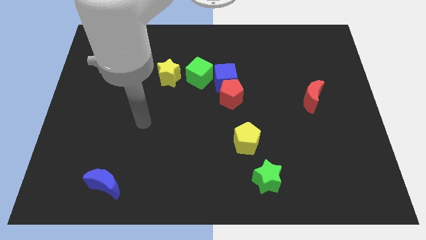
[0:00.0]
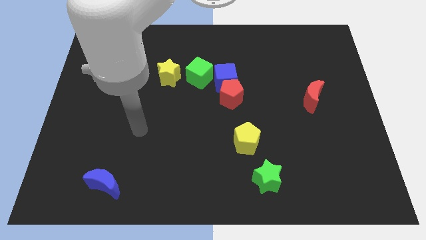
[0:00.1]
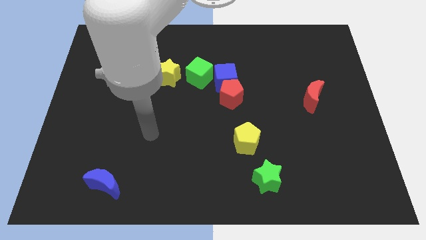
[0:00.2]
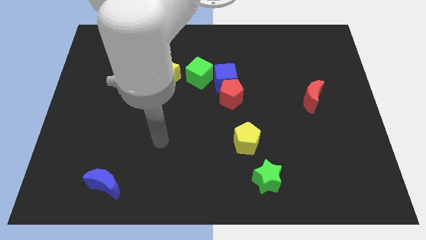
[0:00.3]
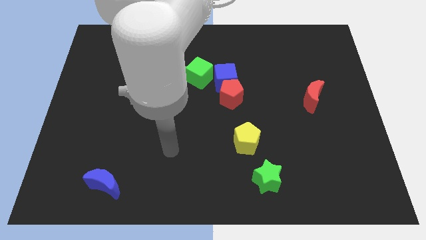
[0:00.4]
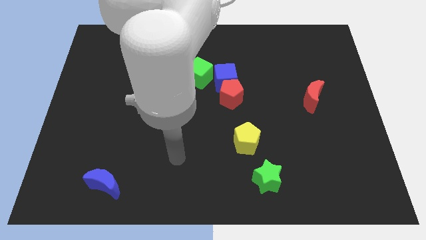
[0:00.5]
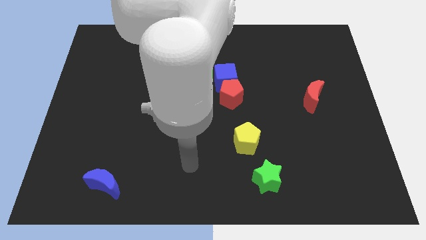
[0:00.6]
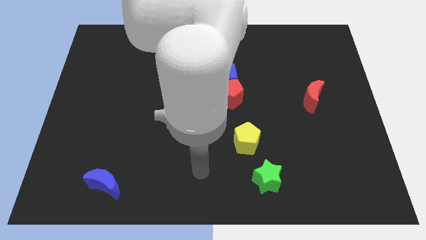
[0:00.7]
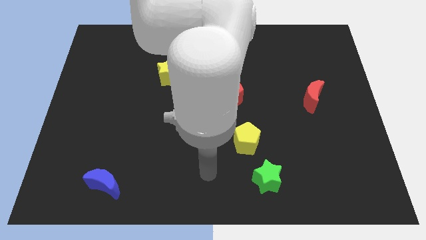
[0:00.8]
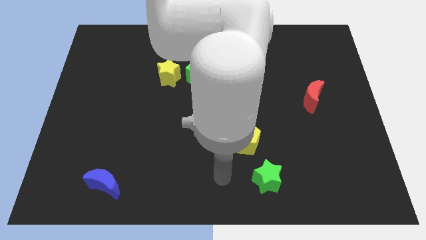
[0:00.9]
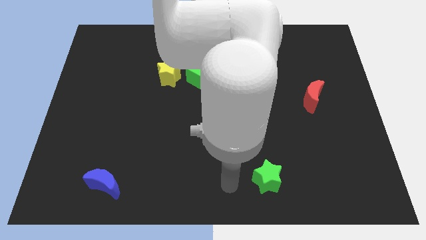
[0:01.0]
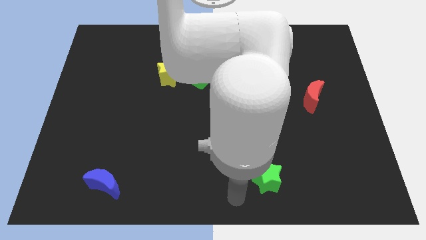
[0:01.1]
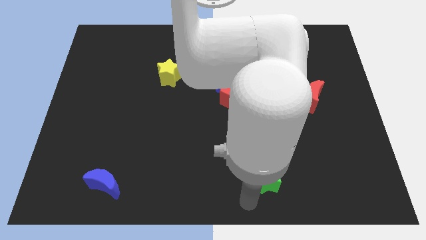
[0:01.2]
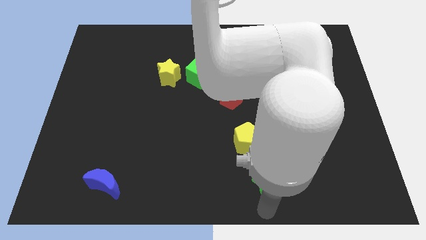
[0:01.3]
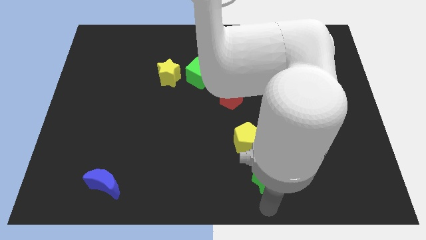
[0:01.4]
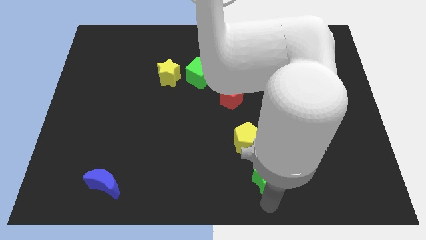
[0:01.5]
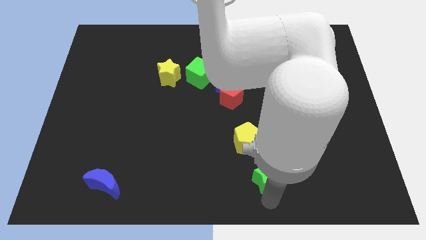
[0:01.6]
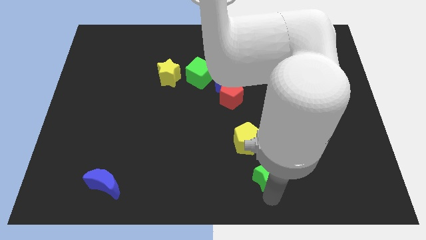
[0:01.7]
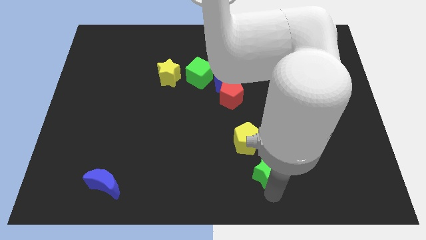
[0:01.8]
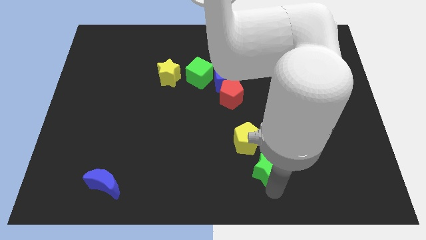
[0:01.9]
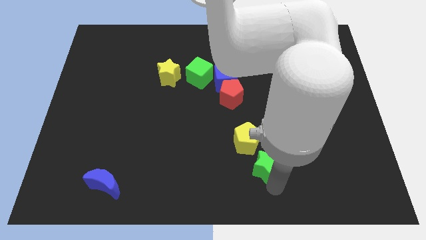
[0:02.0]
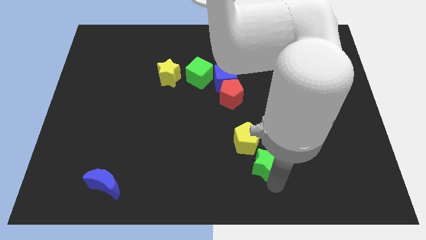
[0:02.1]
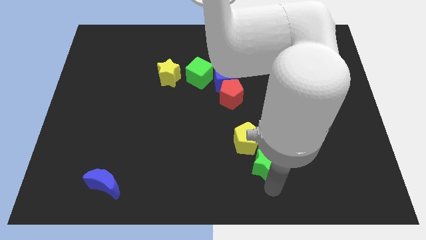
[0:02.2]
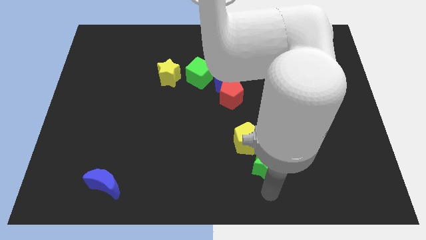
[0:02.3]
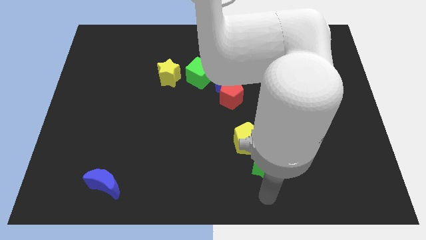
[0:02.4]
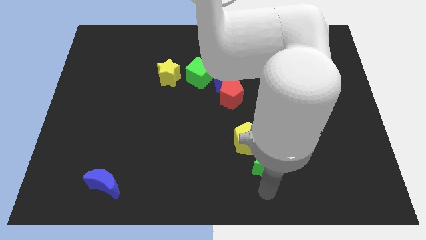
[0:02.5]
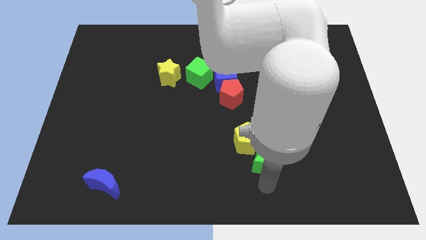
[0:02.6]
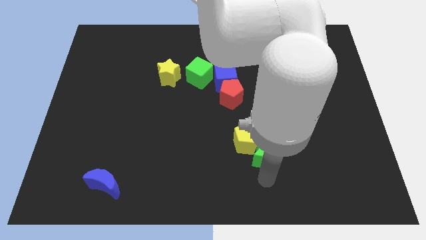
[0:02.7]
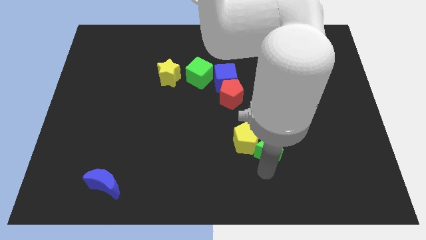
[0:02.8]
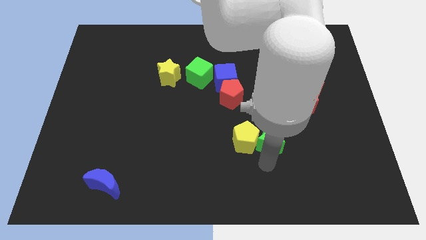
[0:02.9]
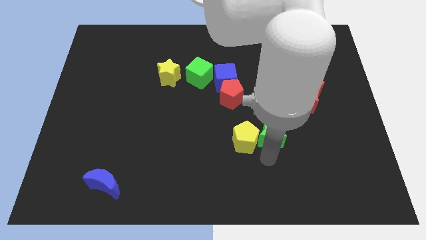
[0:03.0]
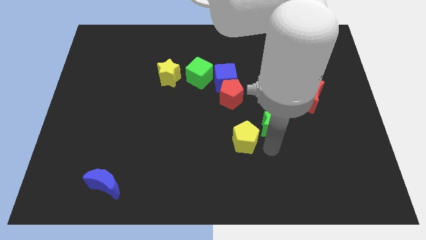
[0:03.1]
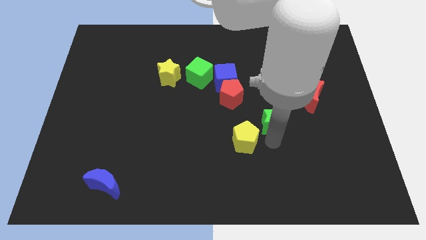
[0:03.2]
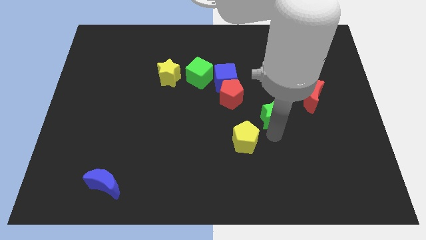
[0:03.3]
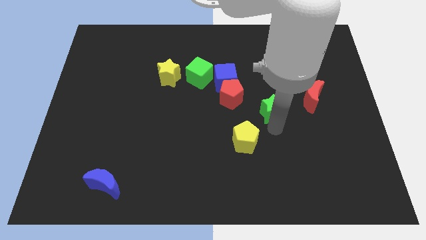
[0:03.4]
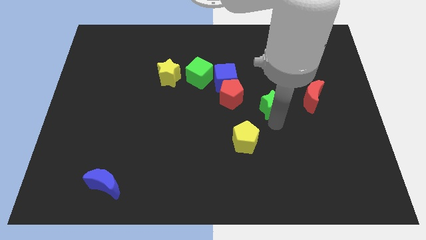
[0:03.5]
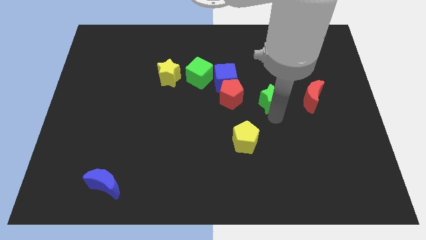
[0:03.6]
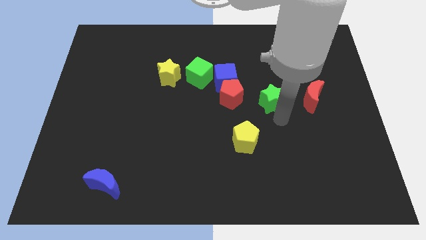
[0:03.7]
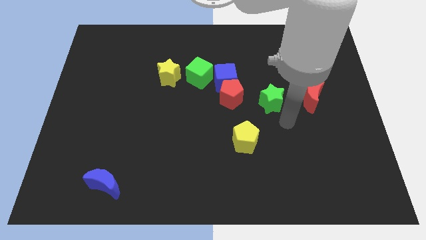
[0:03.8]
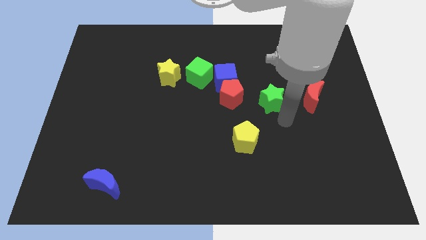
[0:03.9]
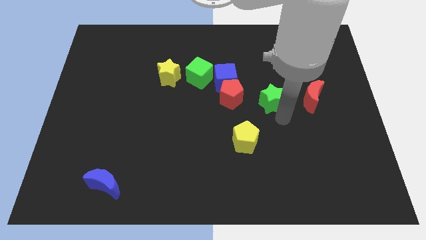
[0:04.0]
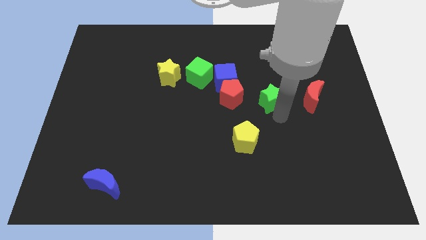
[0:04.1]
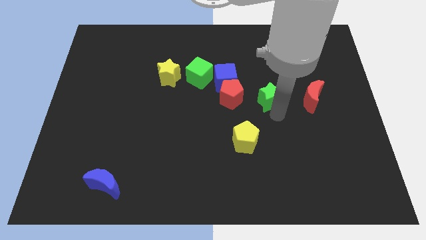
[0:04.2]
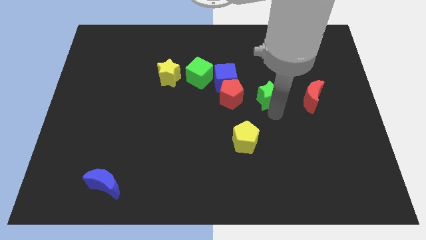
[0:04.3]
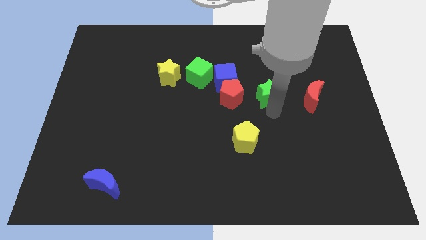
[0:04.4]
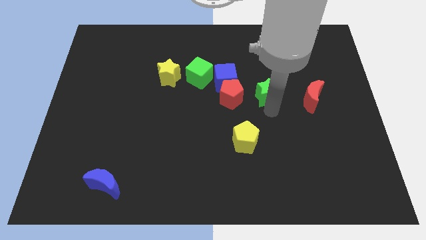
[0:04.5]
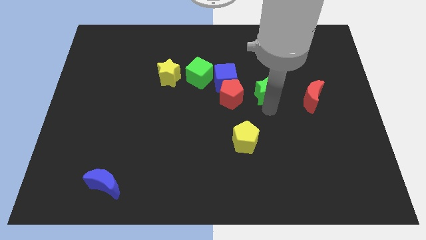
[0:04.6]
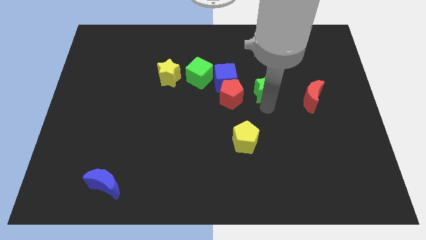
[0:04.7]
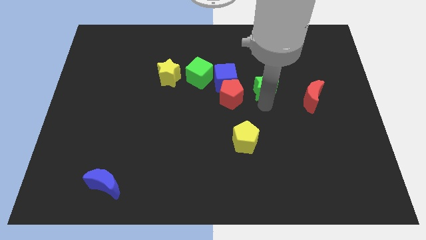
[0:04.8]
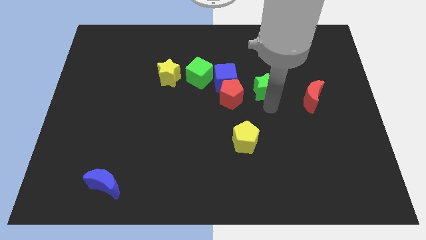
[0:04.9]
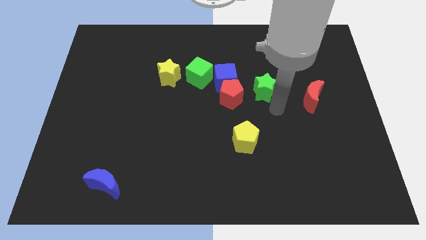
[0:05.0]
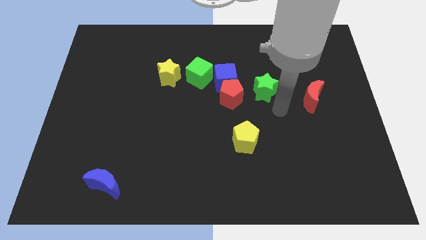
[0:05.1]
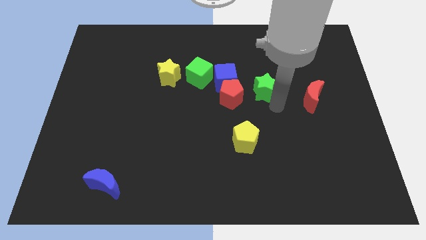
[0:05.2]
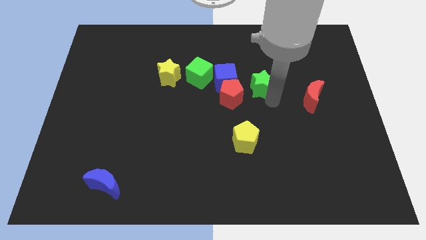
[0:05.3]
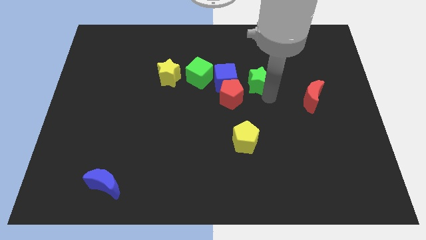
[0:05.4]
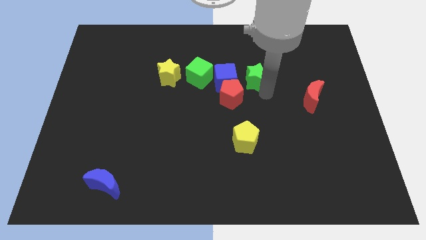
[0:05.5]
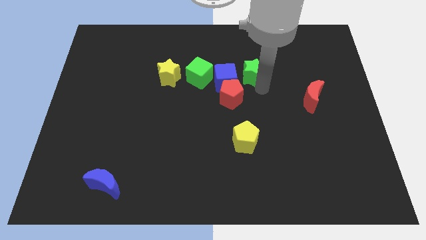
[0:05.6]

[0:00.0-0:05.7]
slide the green star to the top right side of the blue cube

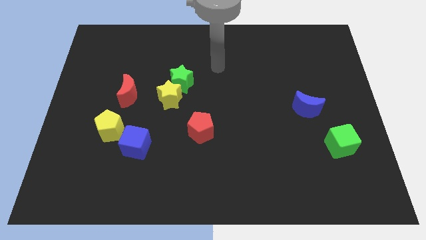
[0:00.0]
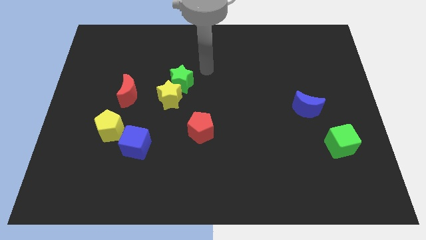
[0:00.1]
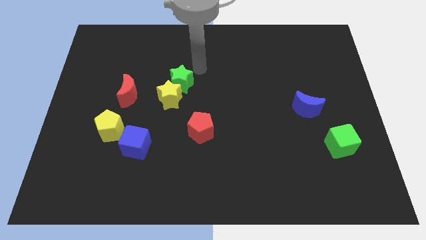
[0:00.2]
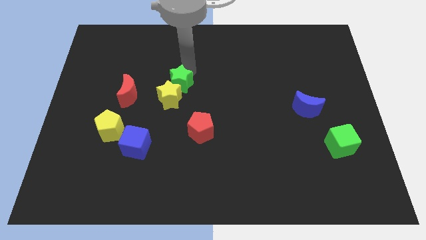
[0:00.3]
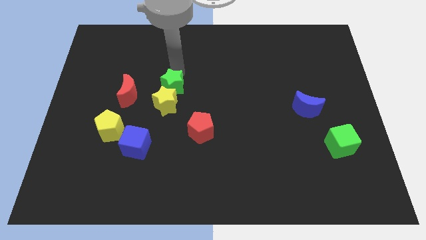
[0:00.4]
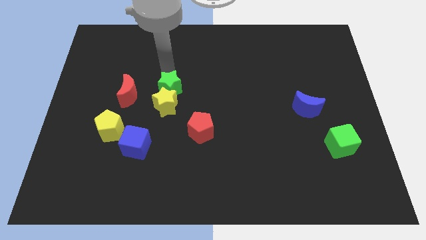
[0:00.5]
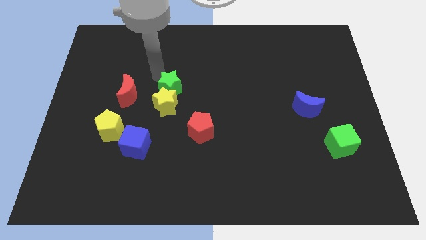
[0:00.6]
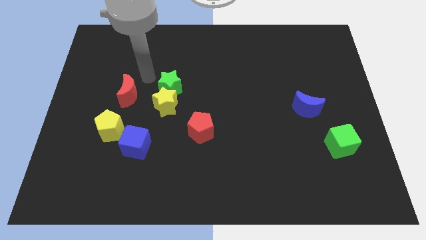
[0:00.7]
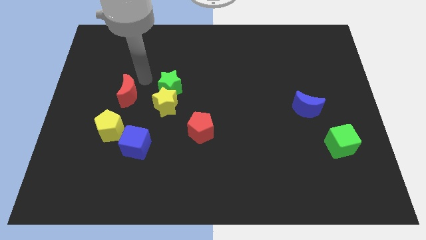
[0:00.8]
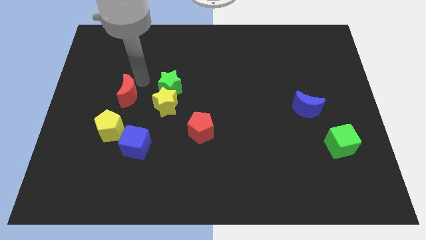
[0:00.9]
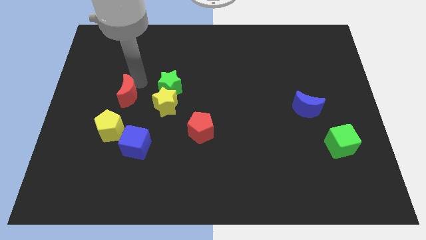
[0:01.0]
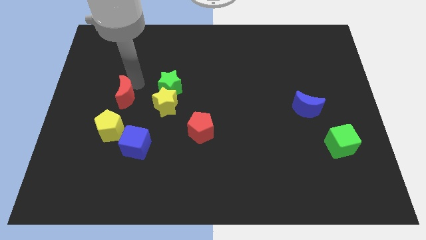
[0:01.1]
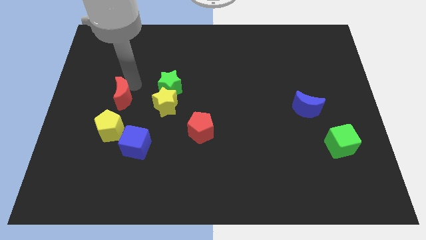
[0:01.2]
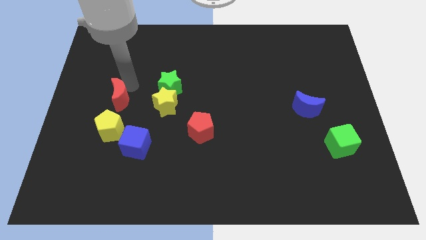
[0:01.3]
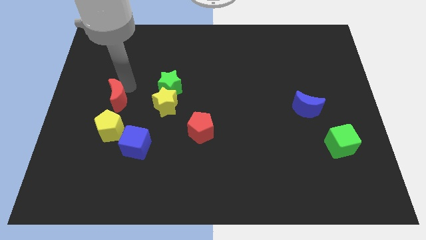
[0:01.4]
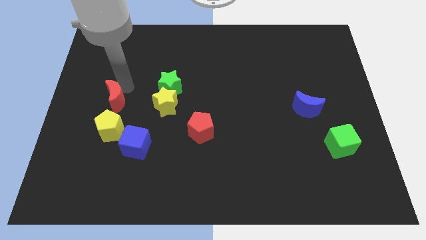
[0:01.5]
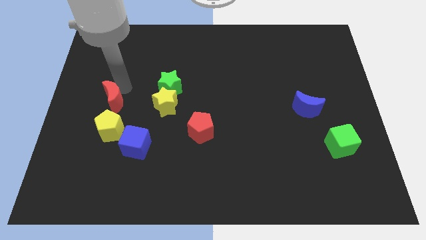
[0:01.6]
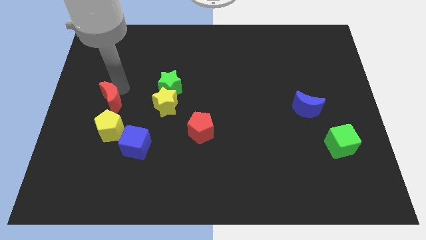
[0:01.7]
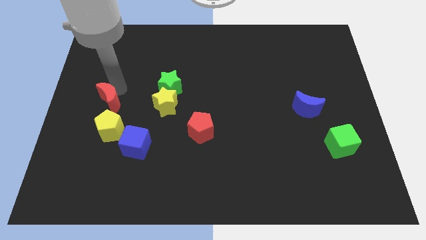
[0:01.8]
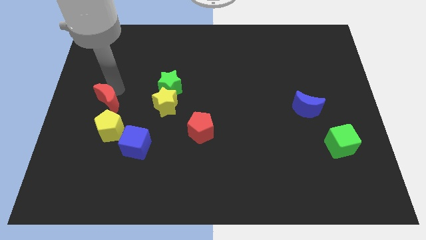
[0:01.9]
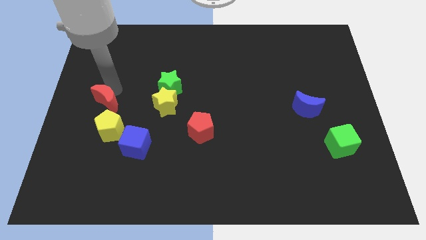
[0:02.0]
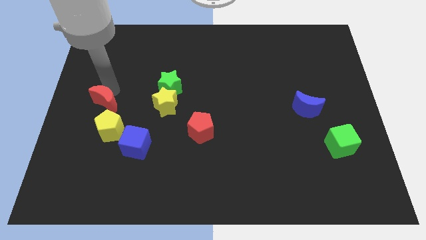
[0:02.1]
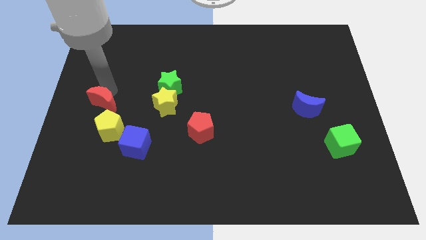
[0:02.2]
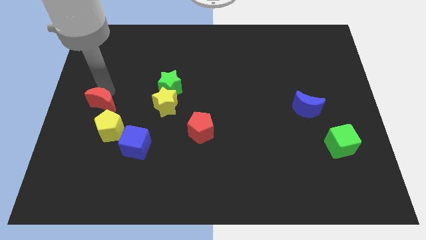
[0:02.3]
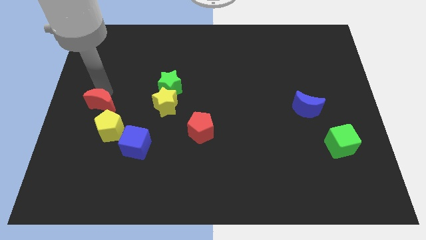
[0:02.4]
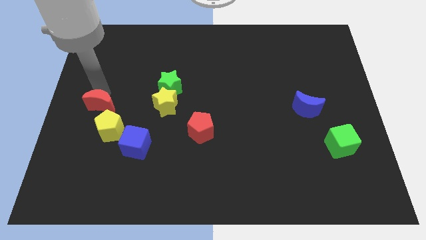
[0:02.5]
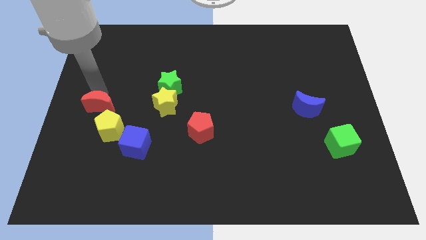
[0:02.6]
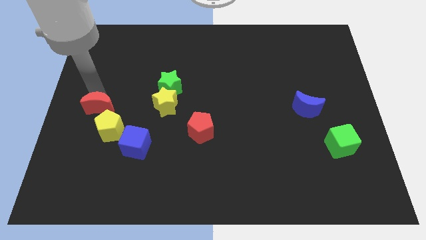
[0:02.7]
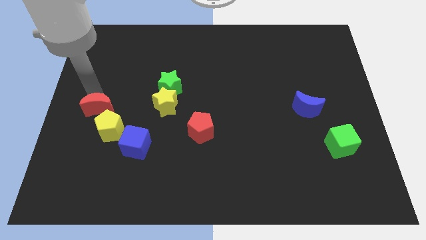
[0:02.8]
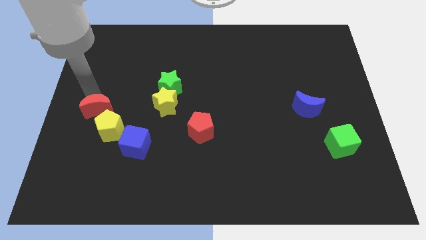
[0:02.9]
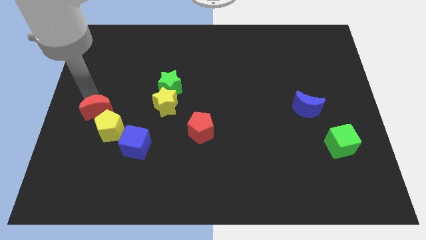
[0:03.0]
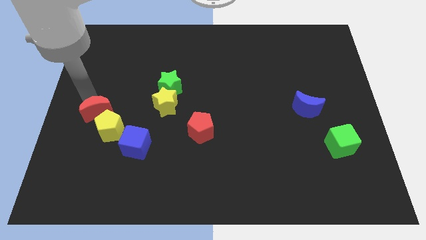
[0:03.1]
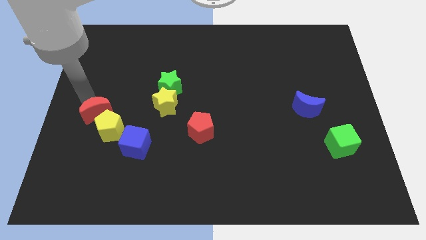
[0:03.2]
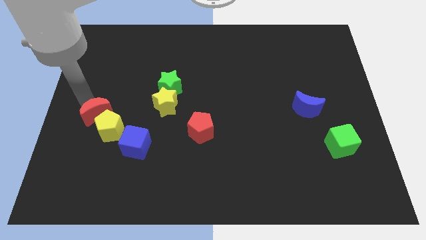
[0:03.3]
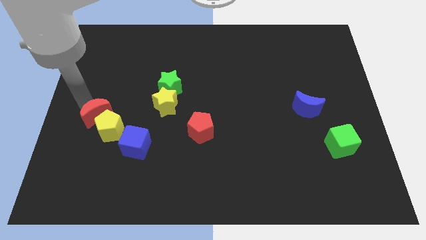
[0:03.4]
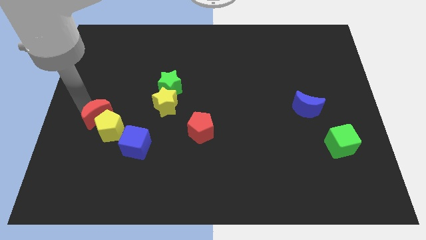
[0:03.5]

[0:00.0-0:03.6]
put the red moon to the top left side of the blue cube
